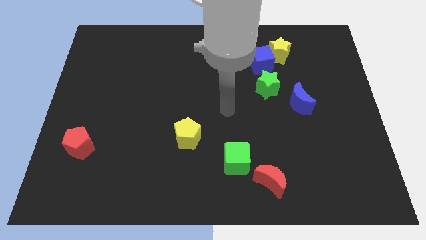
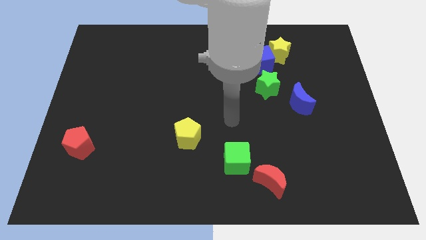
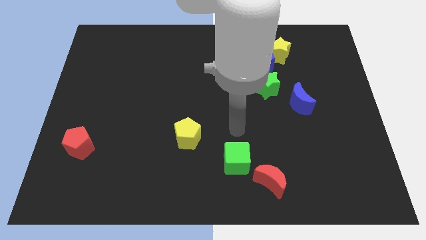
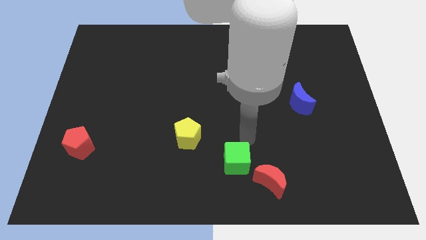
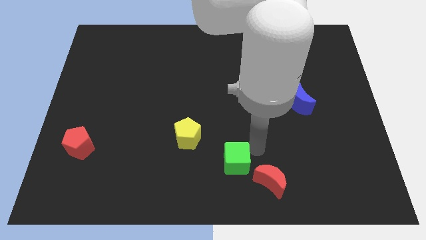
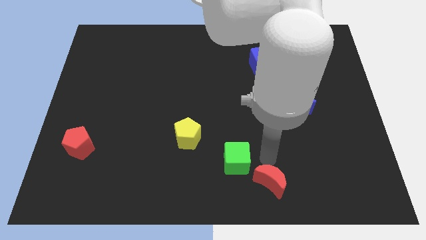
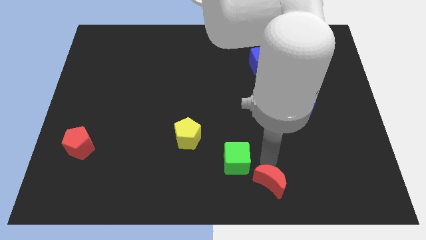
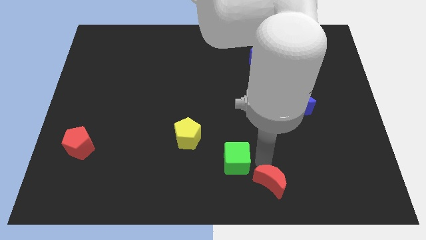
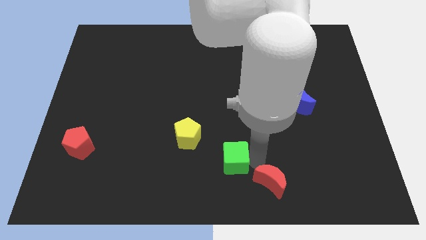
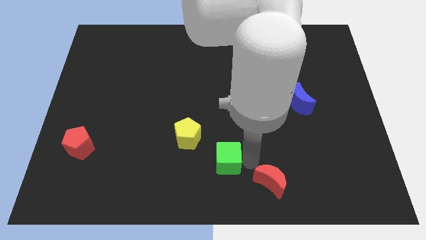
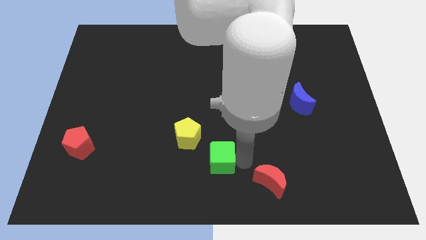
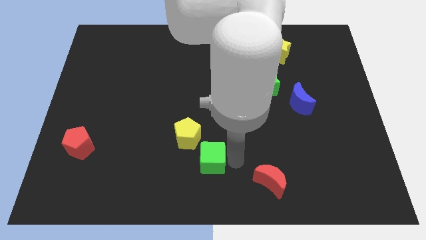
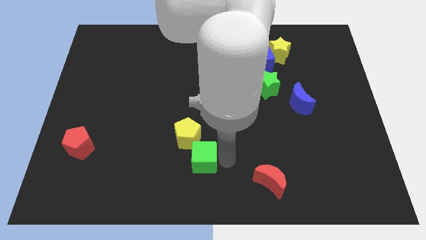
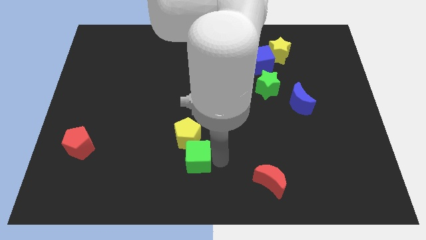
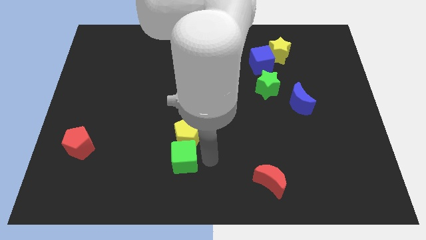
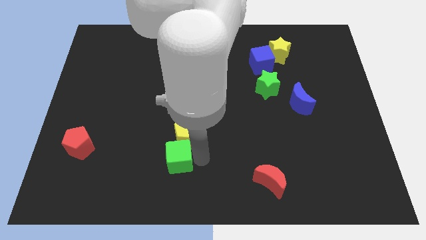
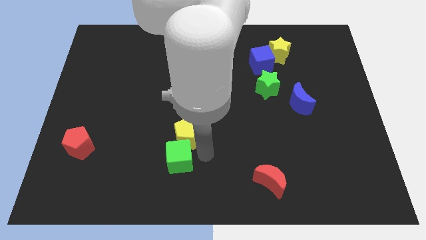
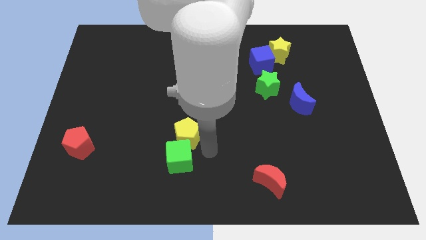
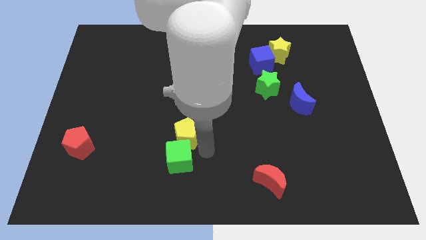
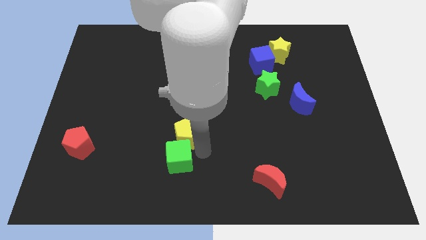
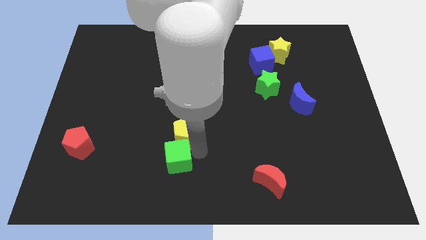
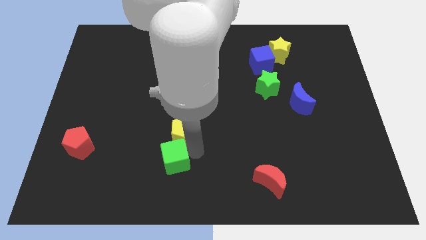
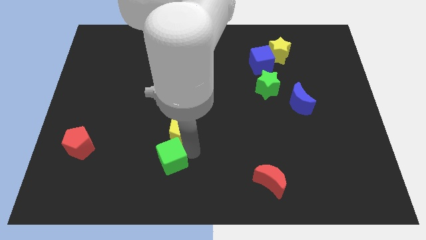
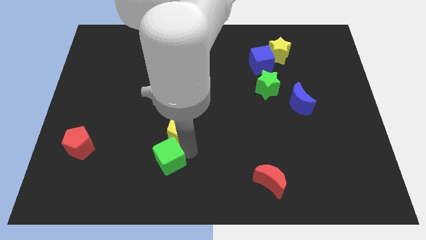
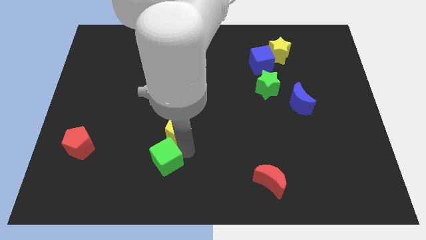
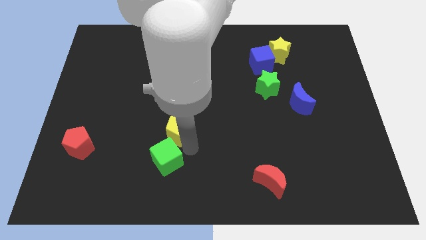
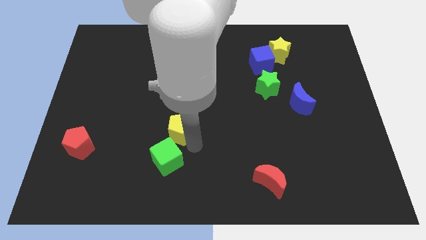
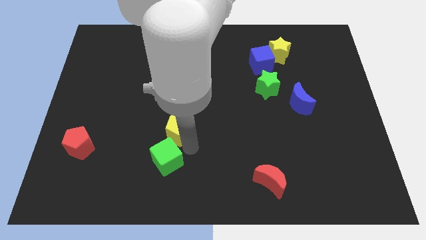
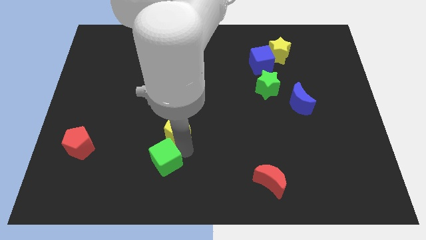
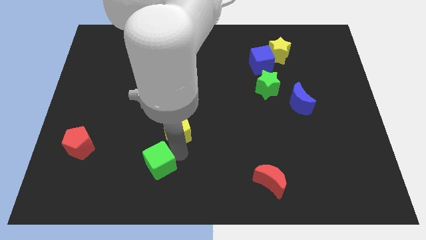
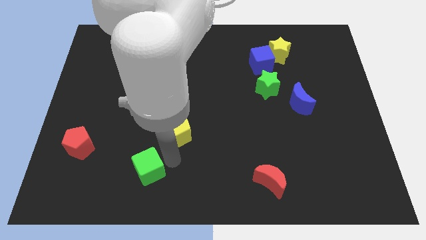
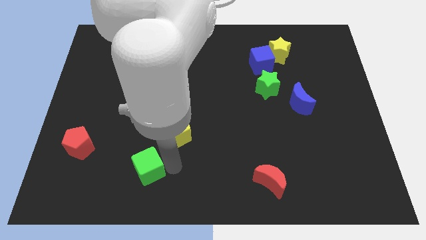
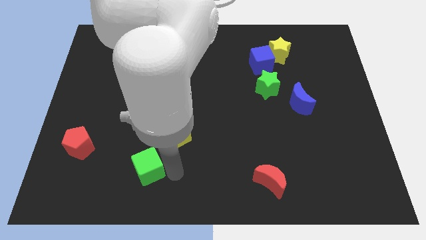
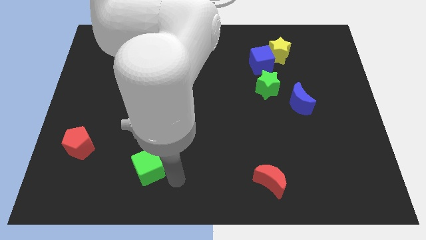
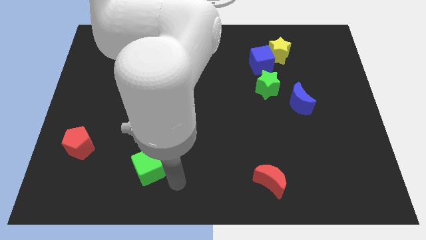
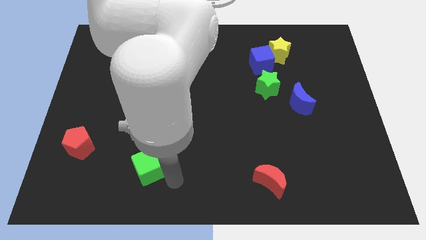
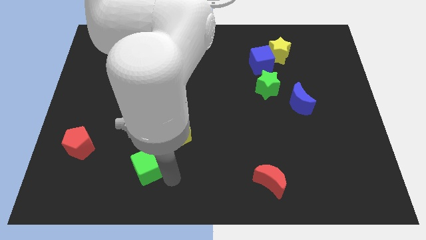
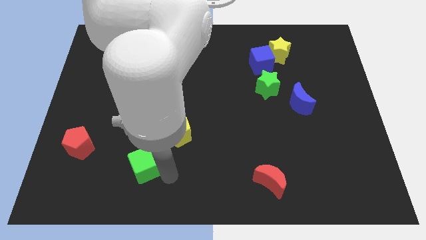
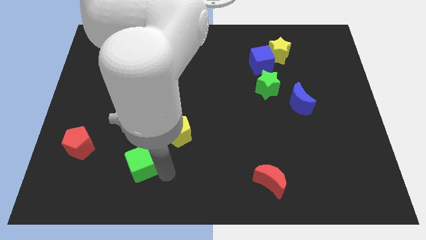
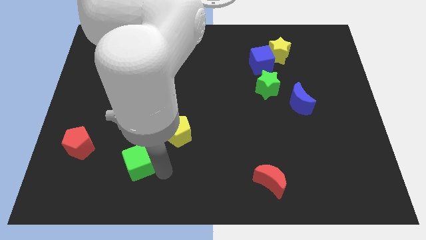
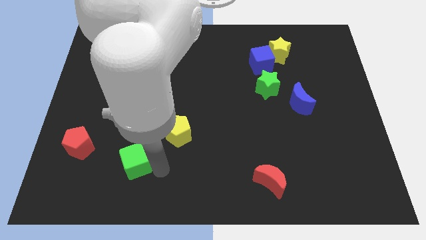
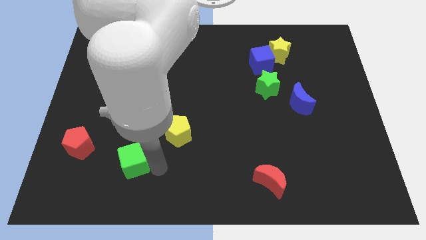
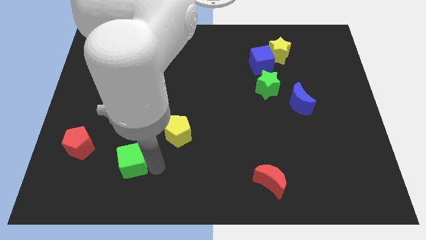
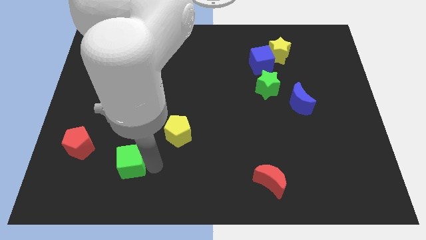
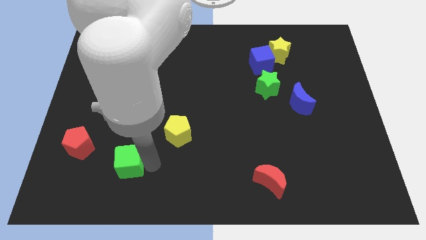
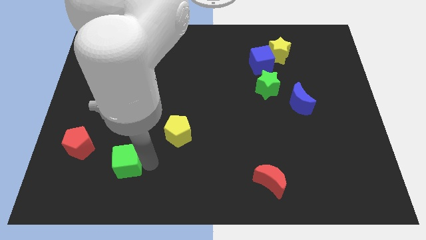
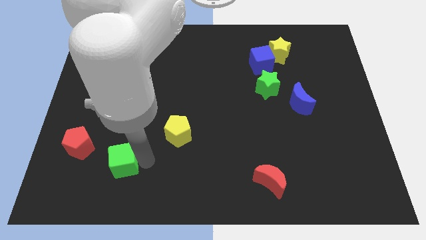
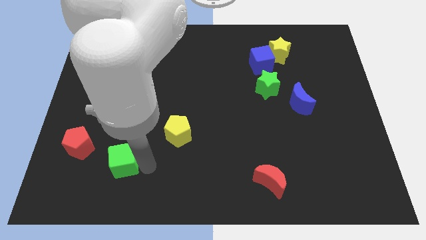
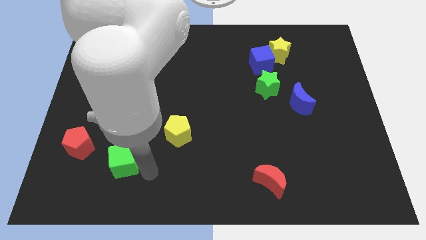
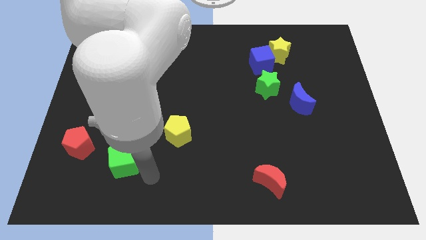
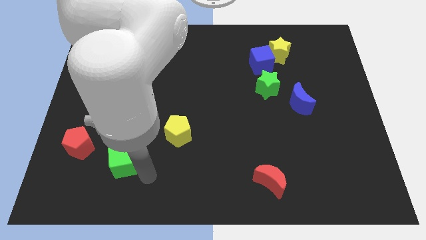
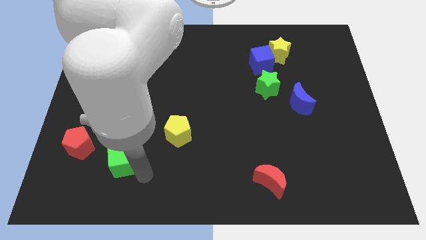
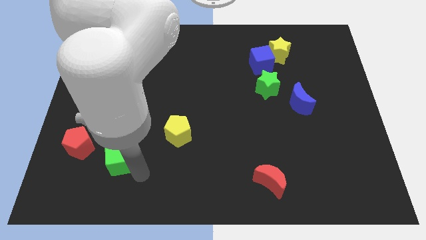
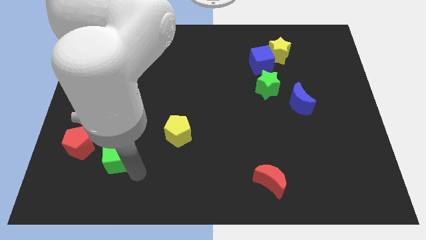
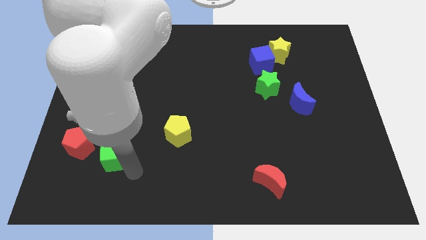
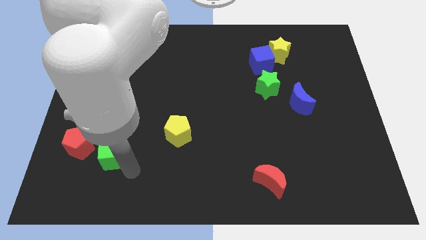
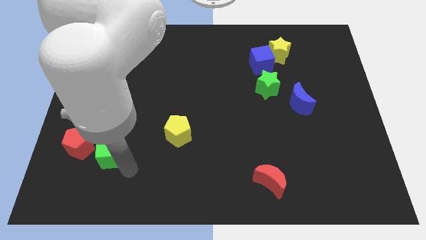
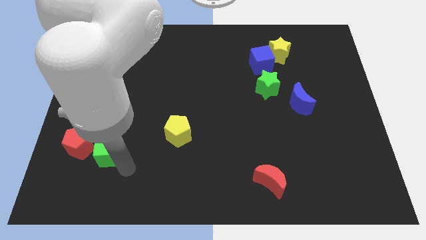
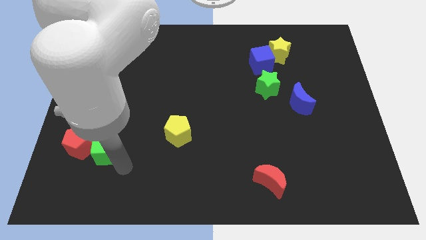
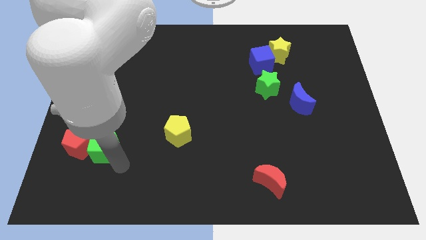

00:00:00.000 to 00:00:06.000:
push the green cube next to the red pentagon

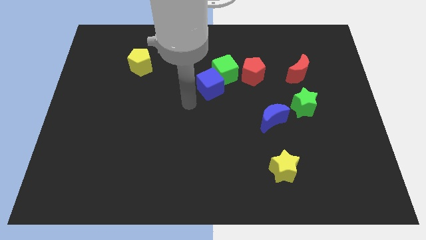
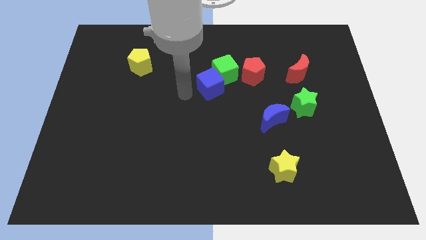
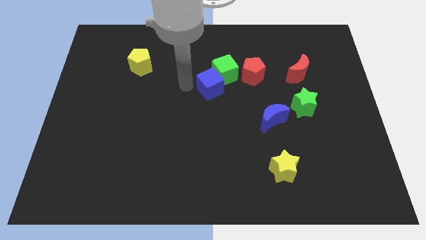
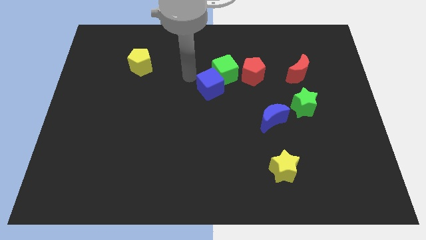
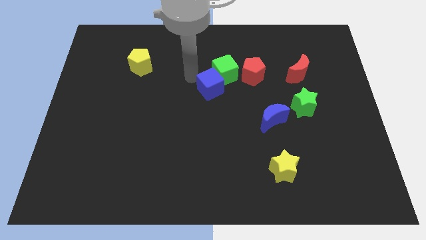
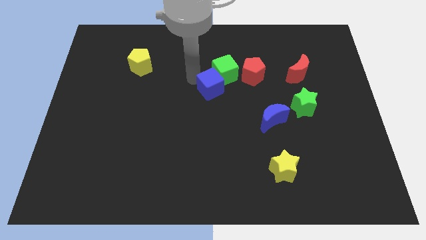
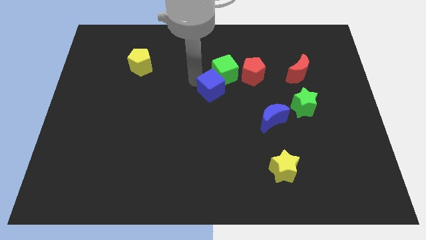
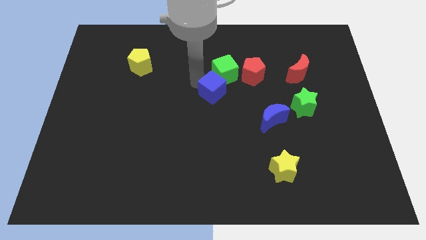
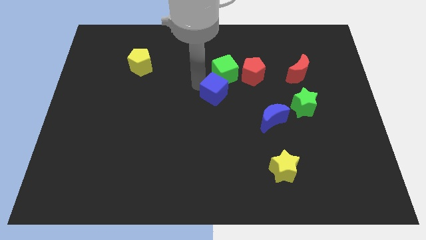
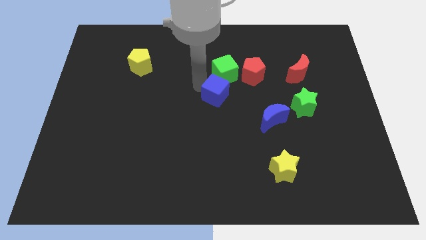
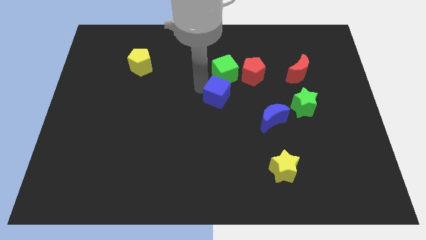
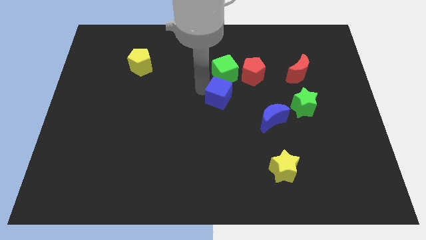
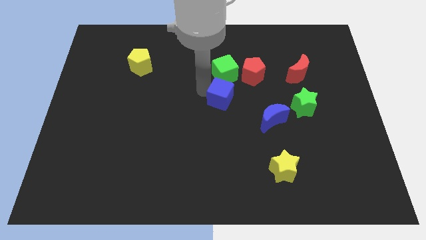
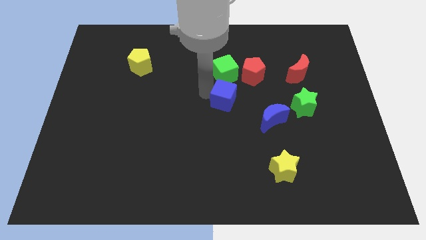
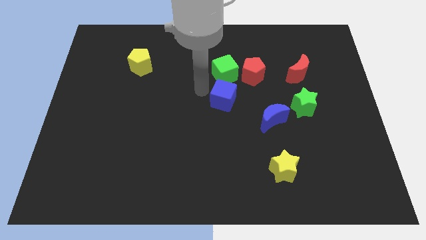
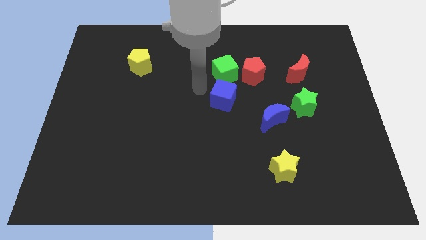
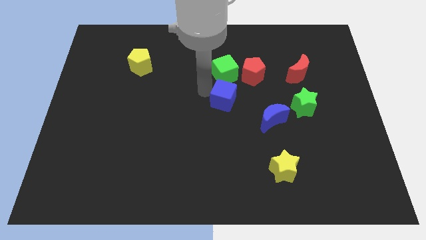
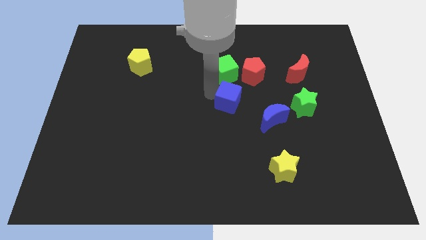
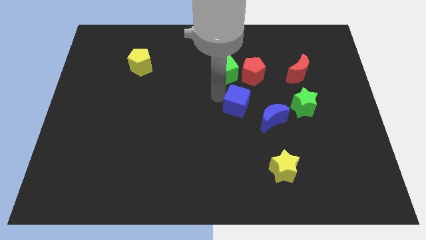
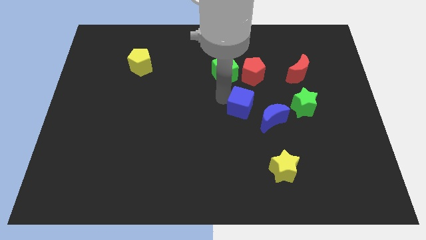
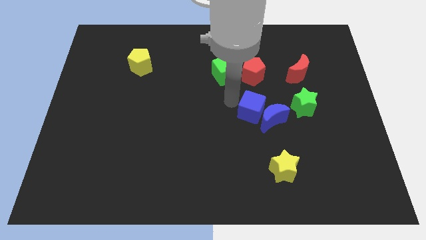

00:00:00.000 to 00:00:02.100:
move the blue cube towards the blue moon
